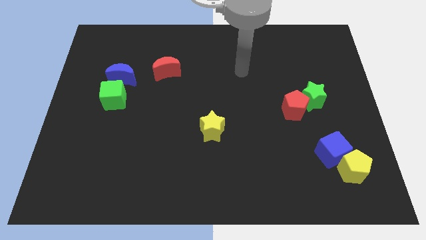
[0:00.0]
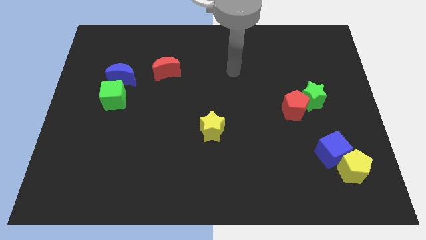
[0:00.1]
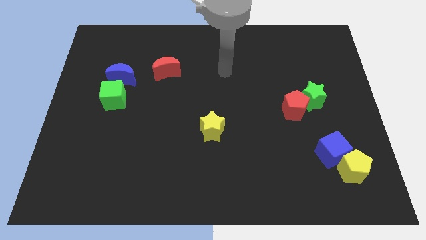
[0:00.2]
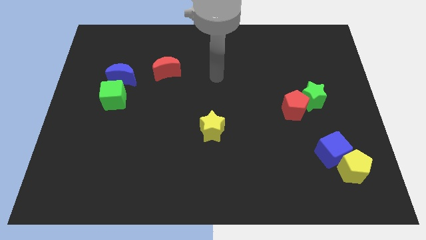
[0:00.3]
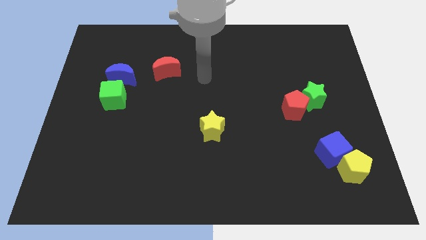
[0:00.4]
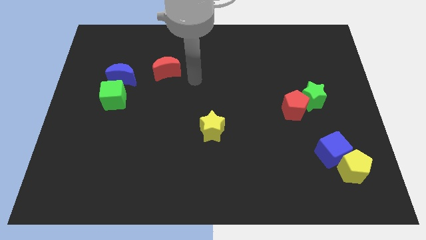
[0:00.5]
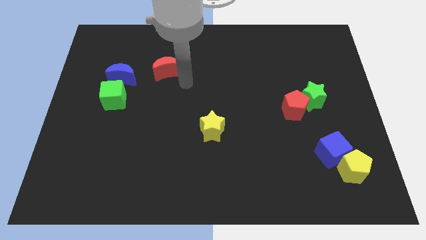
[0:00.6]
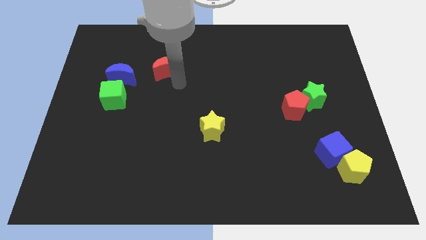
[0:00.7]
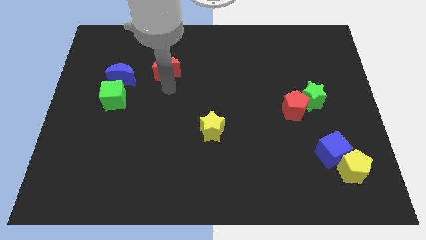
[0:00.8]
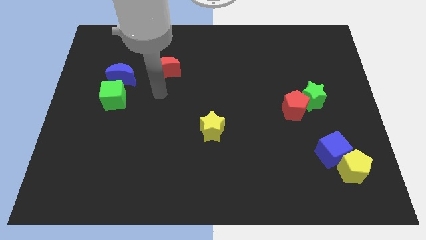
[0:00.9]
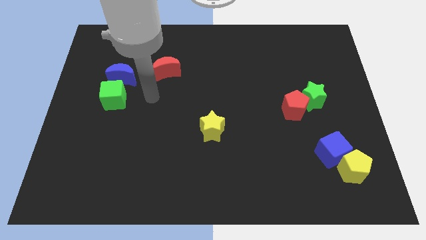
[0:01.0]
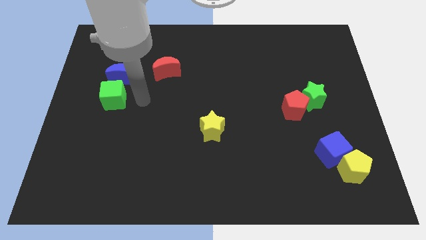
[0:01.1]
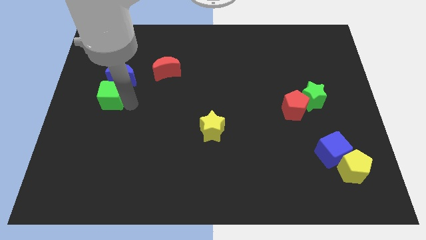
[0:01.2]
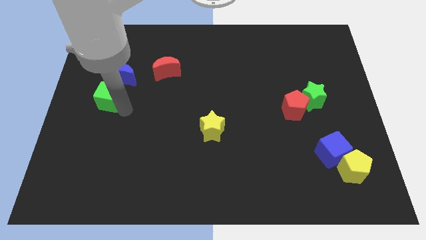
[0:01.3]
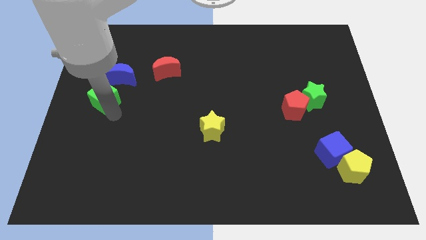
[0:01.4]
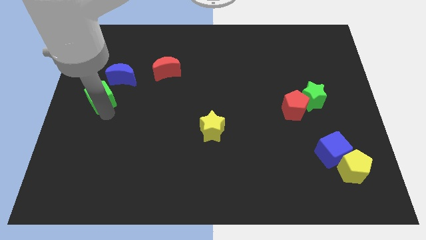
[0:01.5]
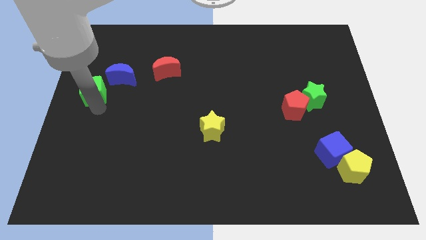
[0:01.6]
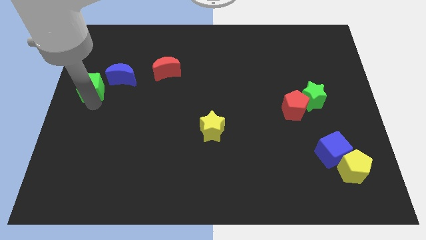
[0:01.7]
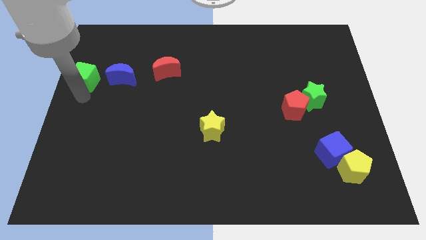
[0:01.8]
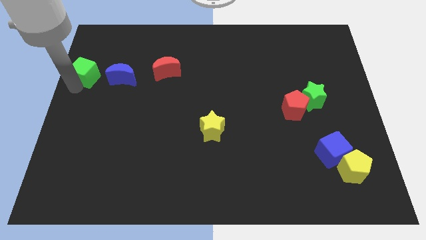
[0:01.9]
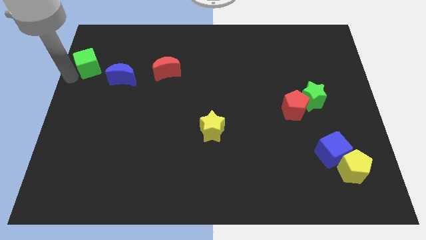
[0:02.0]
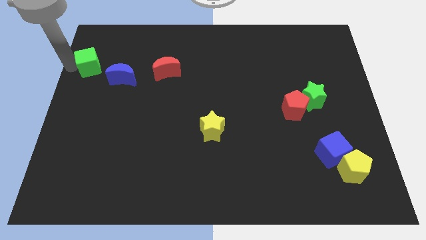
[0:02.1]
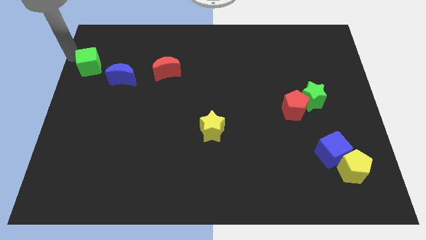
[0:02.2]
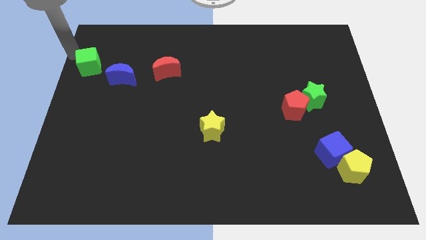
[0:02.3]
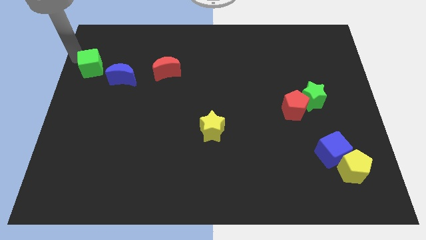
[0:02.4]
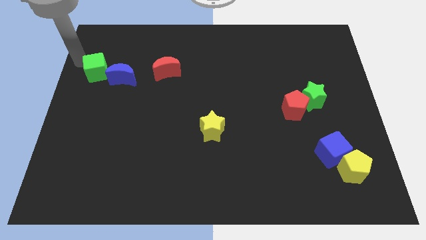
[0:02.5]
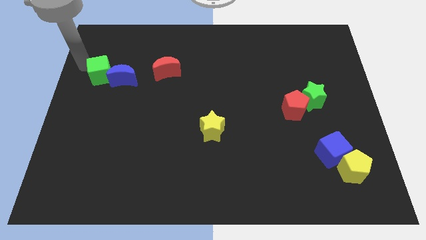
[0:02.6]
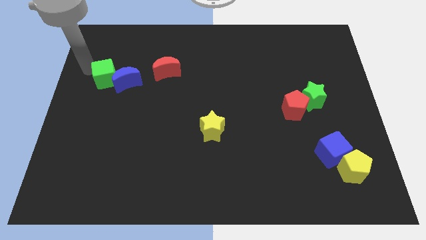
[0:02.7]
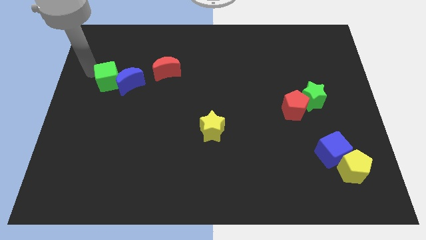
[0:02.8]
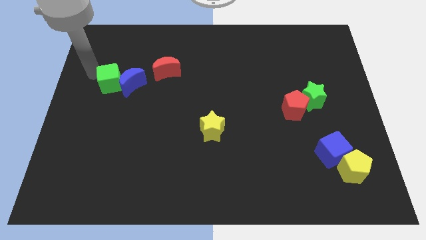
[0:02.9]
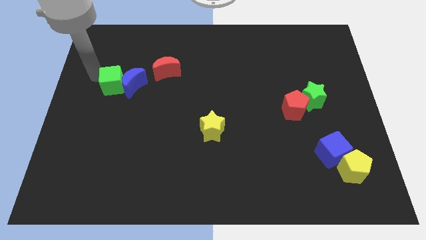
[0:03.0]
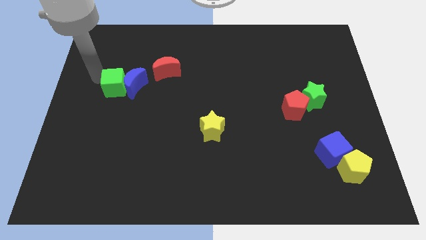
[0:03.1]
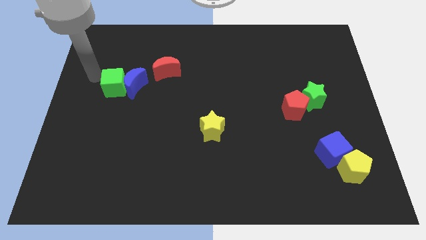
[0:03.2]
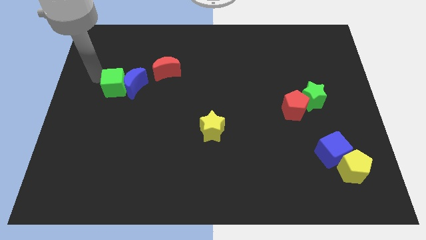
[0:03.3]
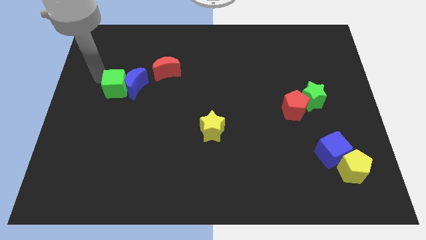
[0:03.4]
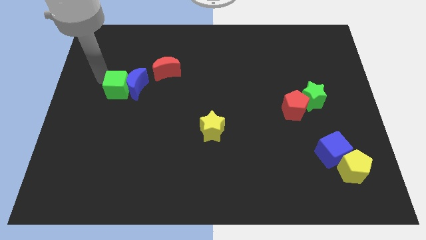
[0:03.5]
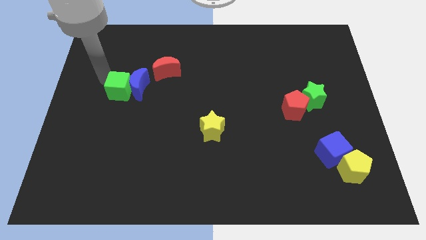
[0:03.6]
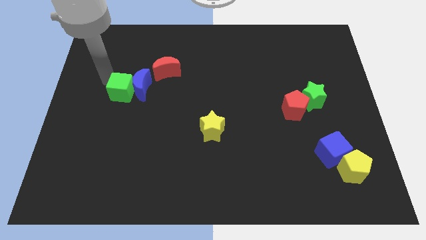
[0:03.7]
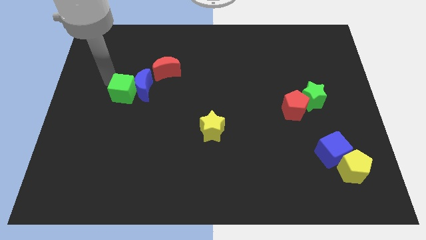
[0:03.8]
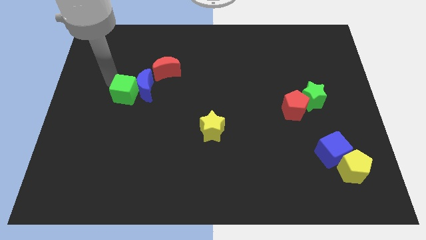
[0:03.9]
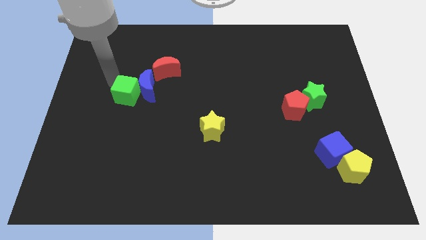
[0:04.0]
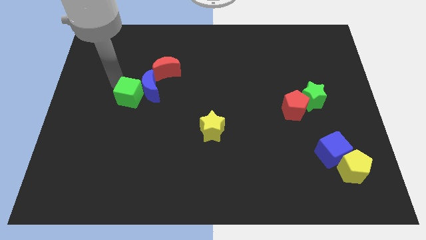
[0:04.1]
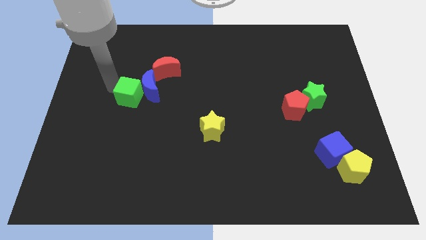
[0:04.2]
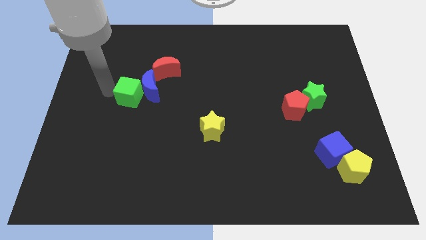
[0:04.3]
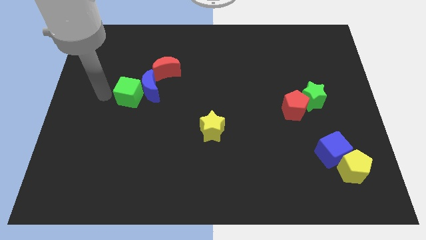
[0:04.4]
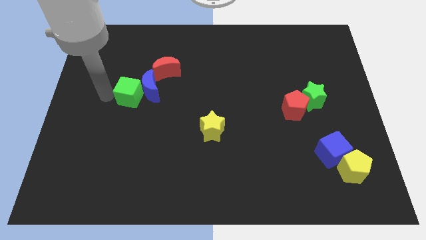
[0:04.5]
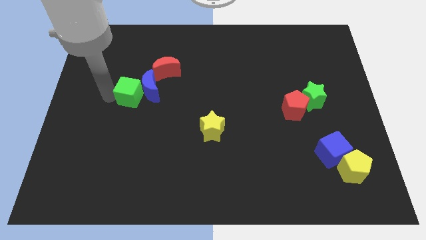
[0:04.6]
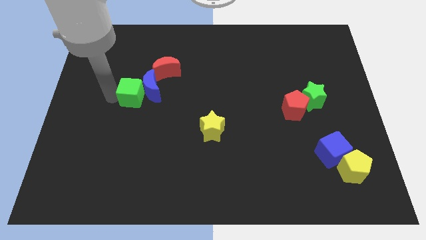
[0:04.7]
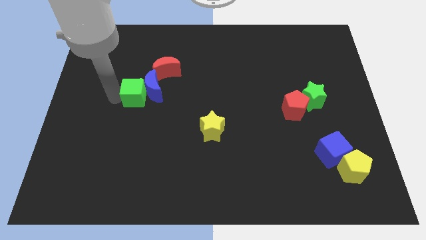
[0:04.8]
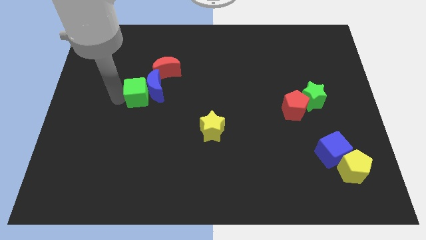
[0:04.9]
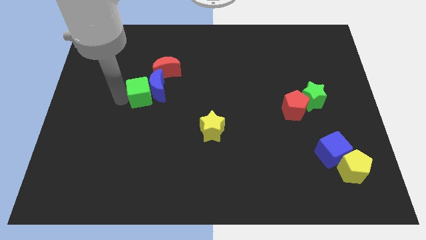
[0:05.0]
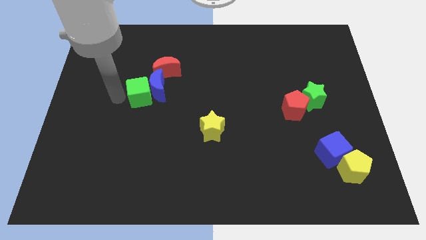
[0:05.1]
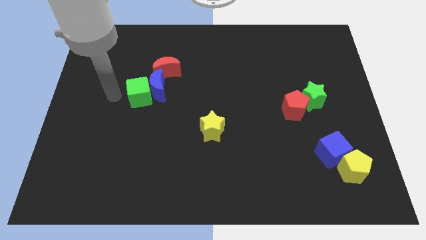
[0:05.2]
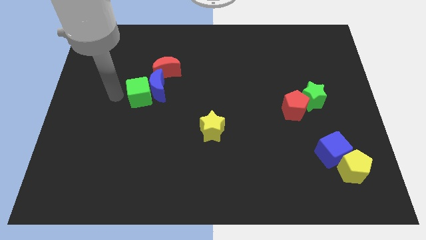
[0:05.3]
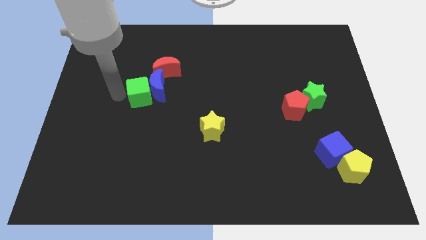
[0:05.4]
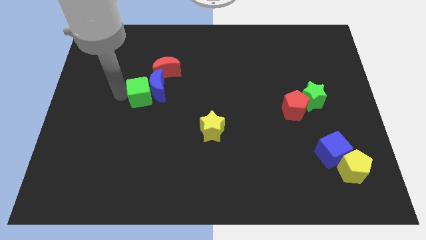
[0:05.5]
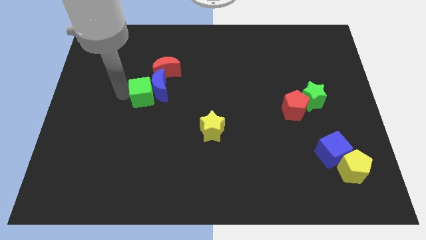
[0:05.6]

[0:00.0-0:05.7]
slightly move the green cube right

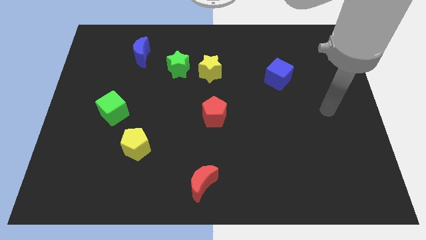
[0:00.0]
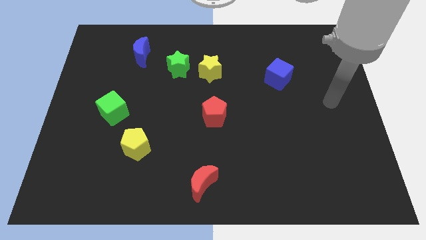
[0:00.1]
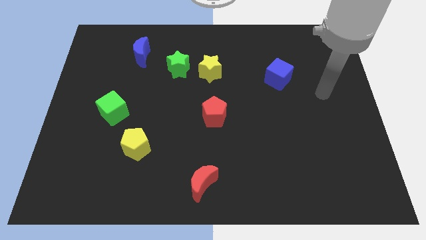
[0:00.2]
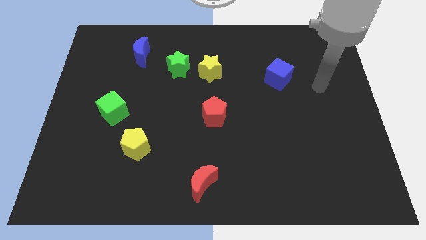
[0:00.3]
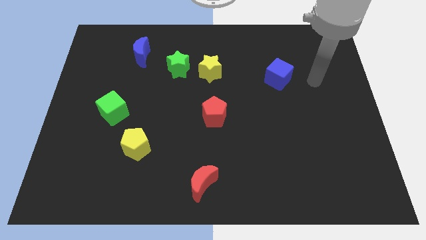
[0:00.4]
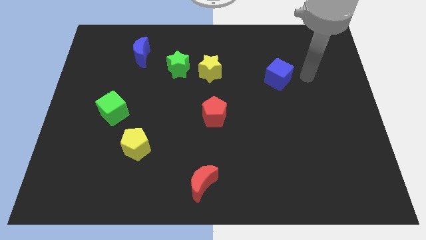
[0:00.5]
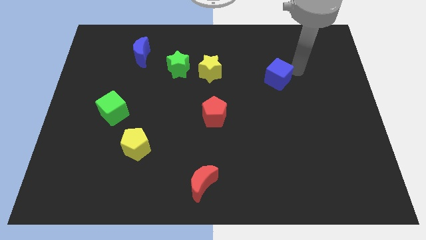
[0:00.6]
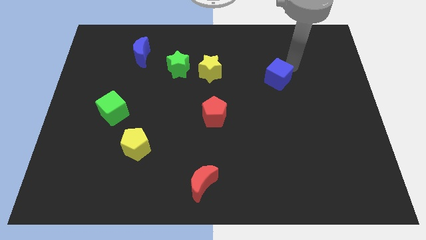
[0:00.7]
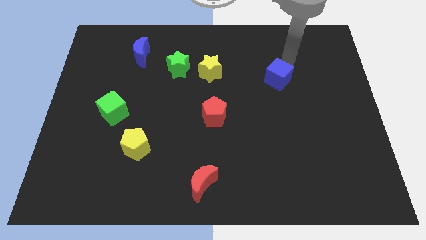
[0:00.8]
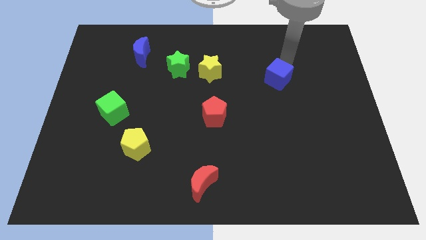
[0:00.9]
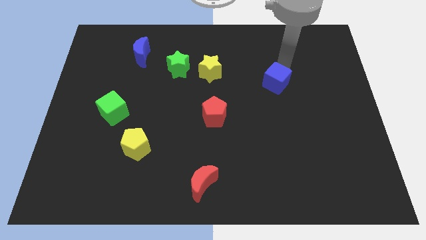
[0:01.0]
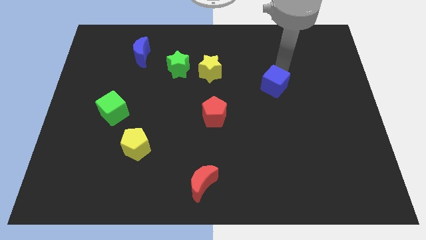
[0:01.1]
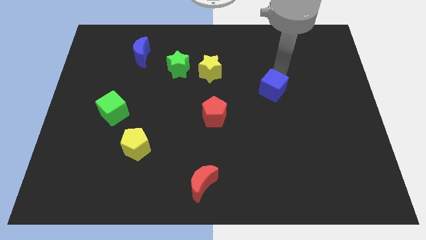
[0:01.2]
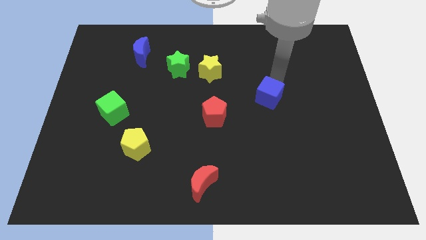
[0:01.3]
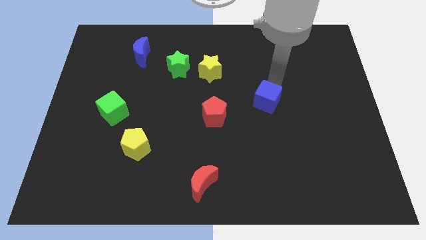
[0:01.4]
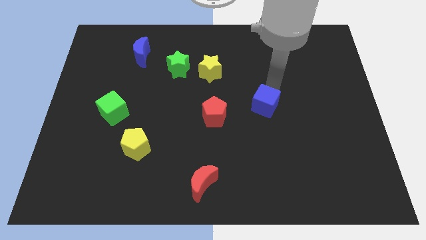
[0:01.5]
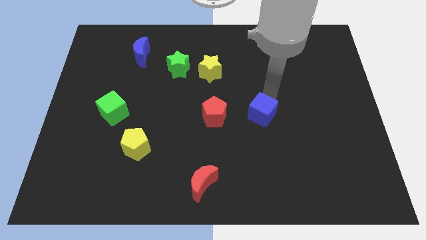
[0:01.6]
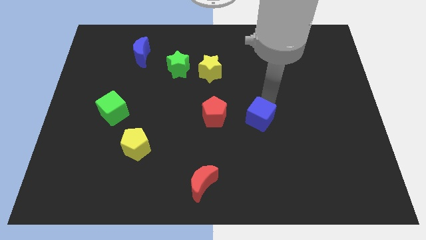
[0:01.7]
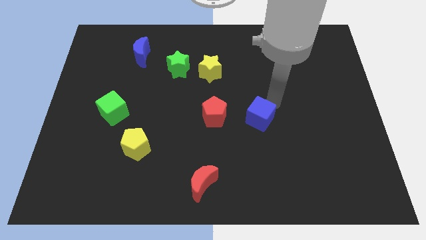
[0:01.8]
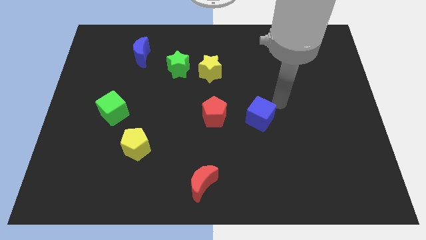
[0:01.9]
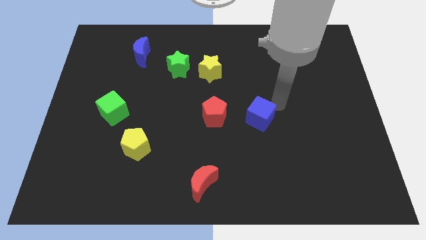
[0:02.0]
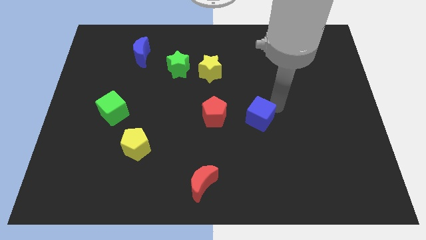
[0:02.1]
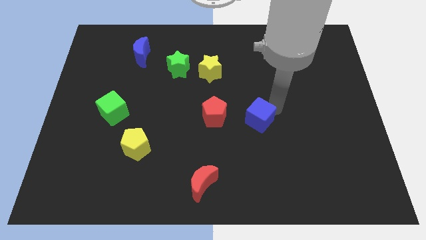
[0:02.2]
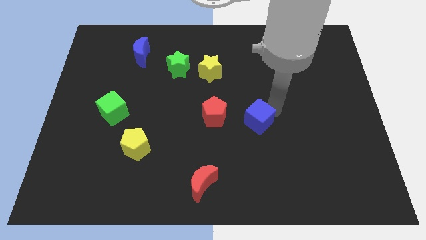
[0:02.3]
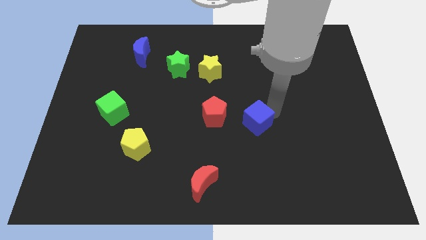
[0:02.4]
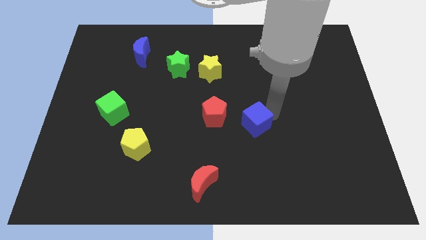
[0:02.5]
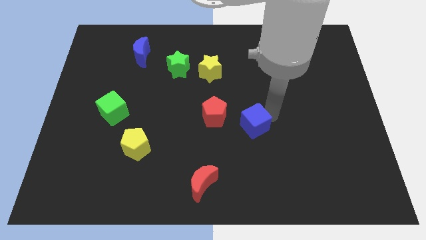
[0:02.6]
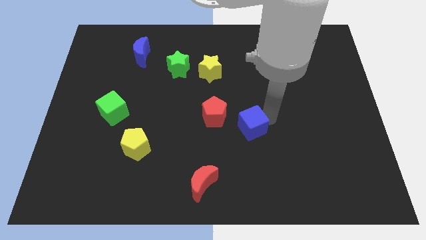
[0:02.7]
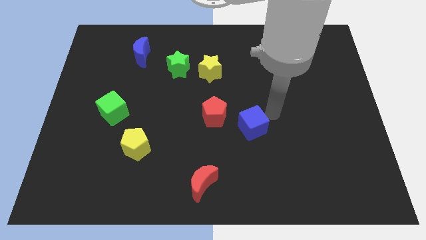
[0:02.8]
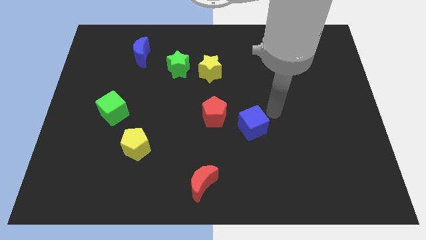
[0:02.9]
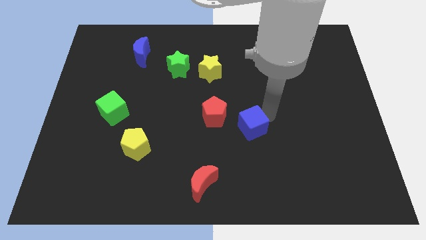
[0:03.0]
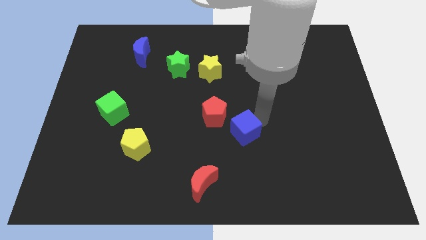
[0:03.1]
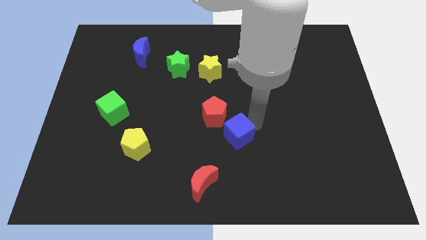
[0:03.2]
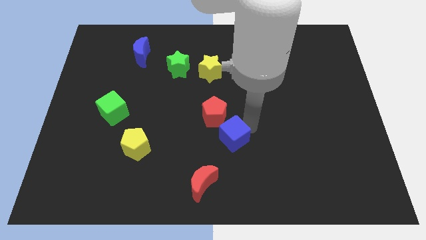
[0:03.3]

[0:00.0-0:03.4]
push the blue cube downwards and left diagonally
